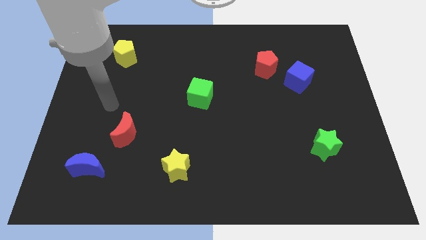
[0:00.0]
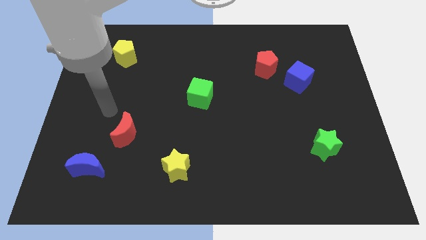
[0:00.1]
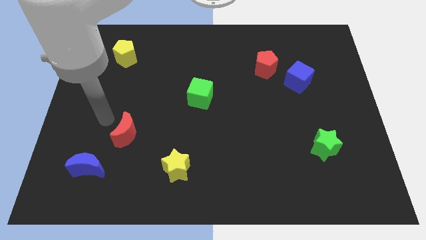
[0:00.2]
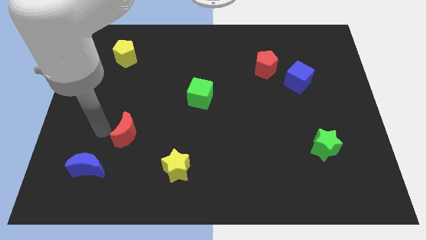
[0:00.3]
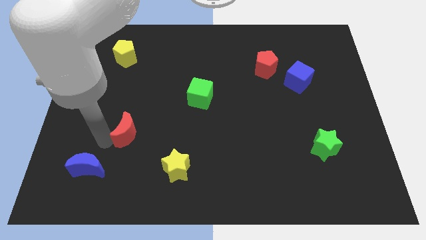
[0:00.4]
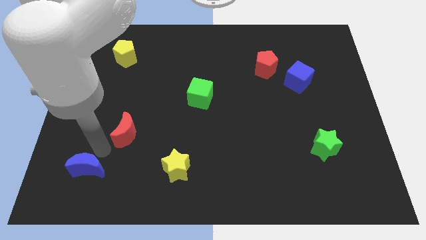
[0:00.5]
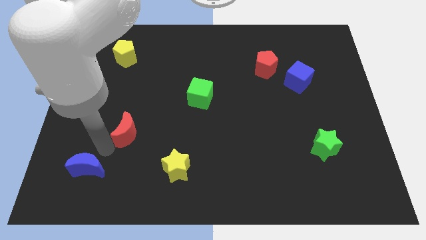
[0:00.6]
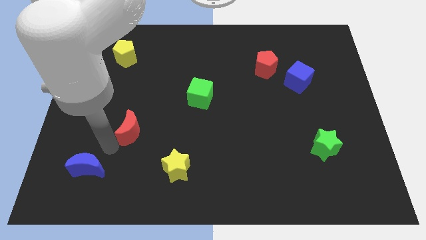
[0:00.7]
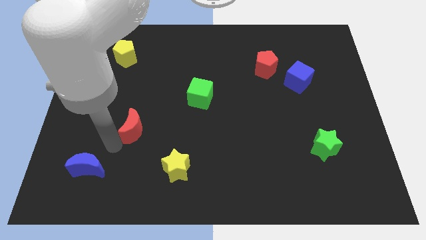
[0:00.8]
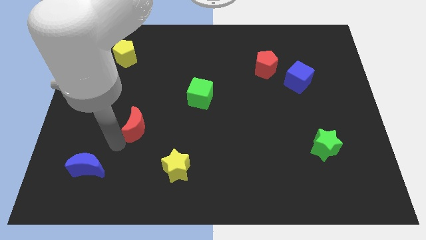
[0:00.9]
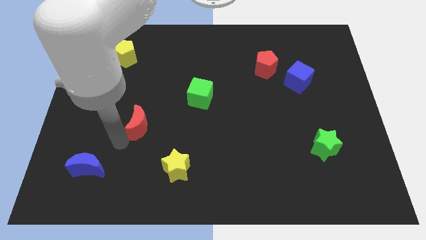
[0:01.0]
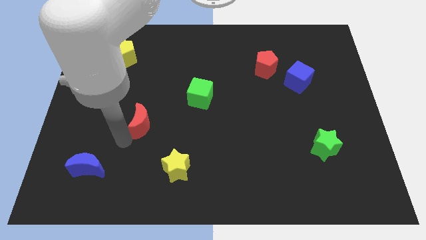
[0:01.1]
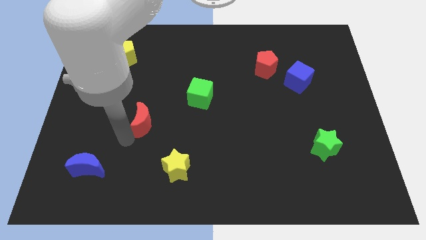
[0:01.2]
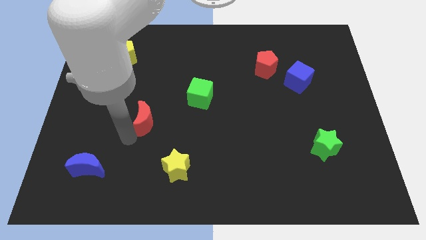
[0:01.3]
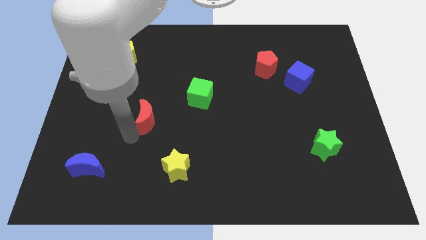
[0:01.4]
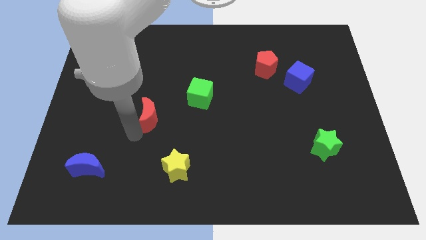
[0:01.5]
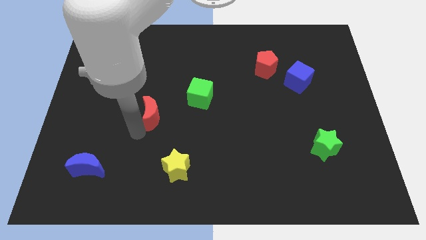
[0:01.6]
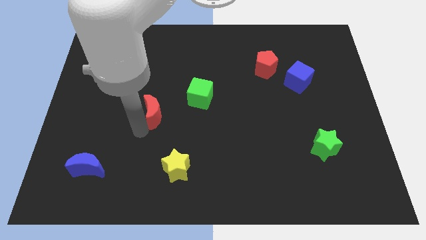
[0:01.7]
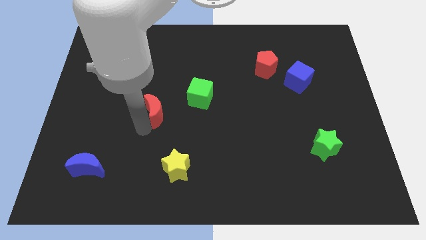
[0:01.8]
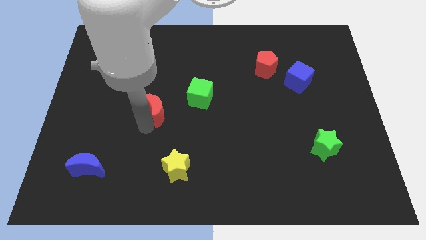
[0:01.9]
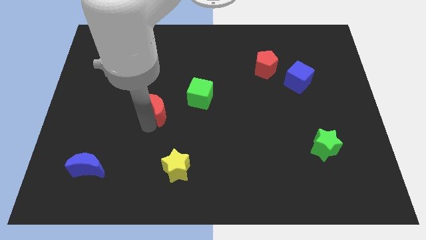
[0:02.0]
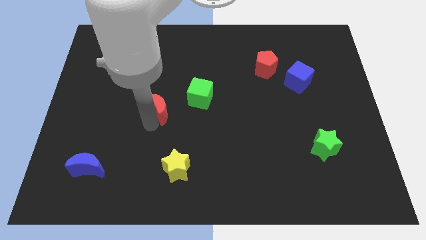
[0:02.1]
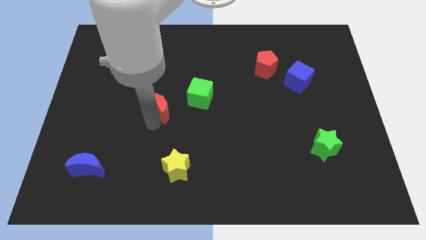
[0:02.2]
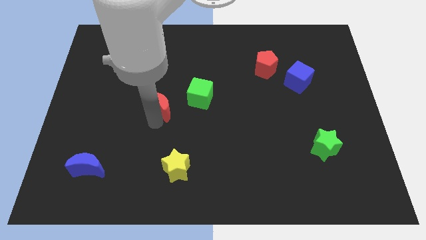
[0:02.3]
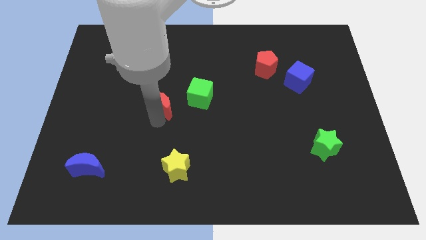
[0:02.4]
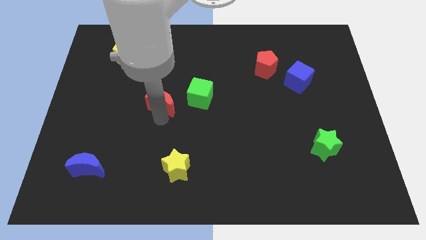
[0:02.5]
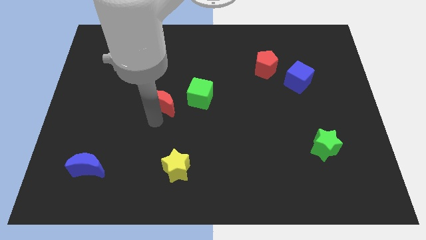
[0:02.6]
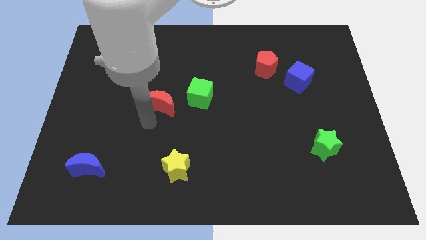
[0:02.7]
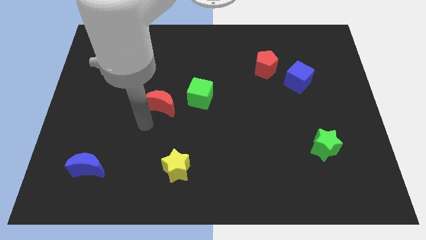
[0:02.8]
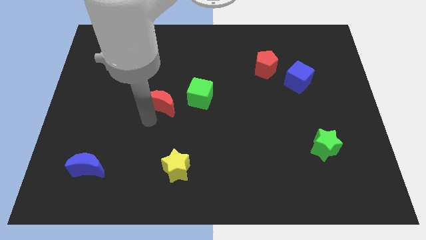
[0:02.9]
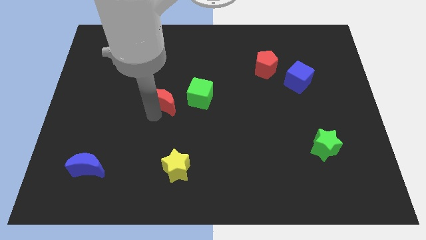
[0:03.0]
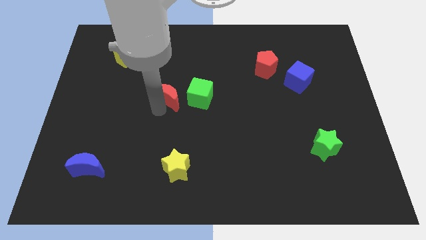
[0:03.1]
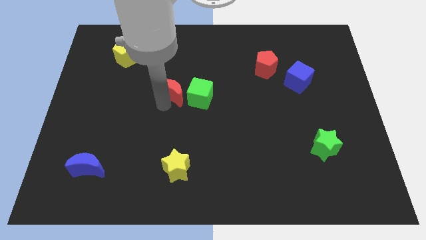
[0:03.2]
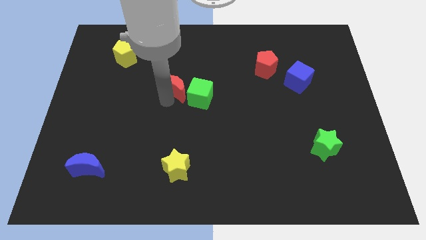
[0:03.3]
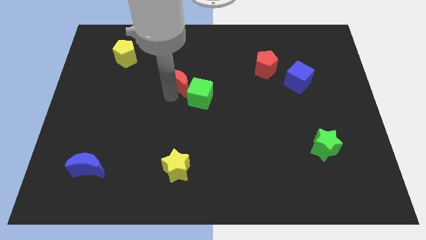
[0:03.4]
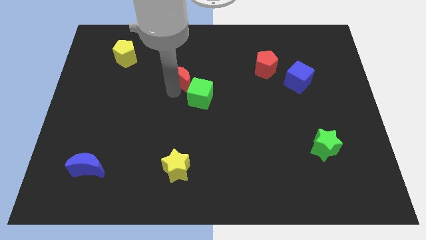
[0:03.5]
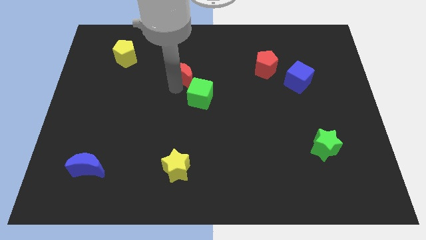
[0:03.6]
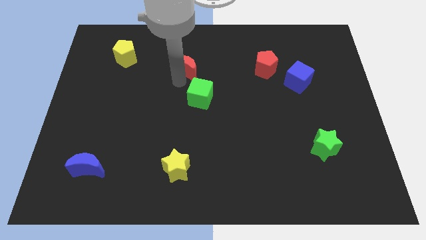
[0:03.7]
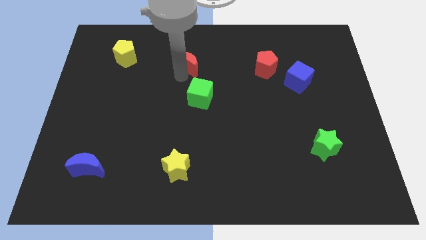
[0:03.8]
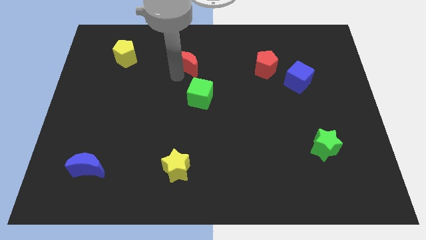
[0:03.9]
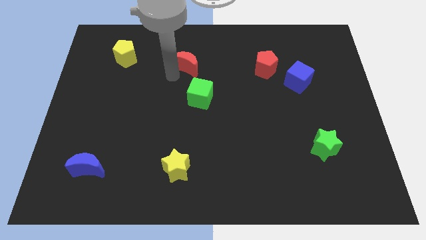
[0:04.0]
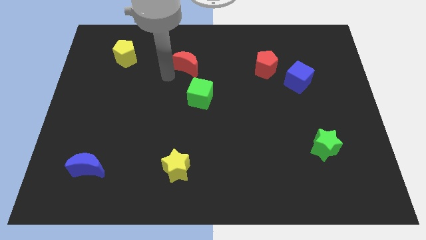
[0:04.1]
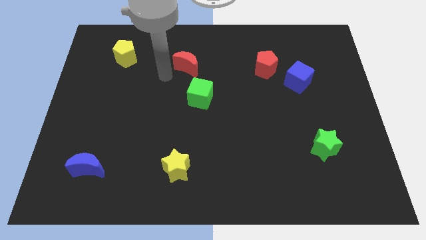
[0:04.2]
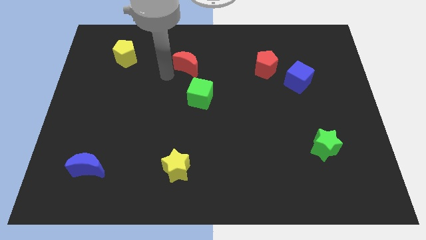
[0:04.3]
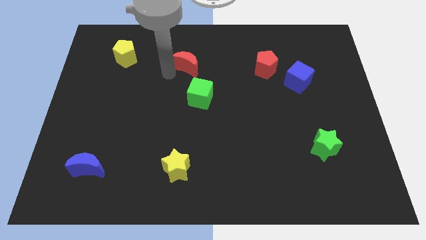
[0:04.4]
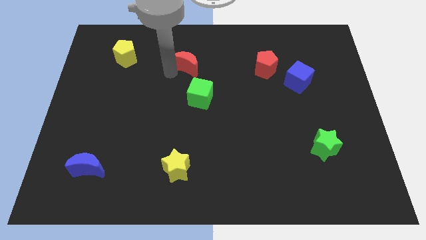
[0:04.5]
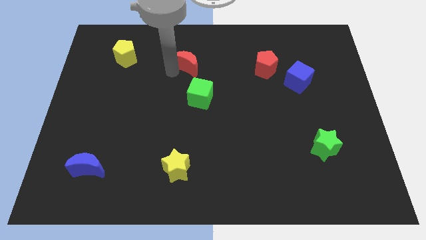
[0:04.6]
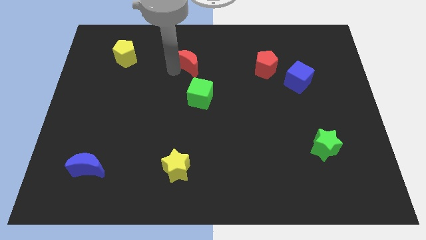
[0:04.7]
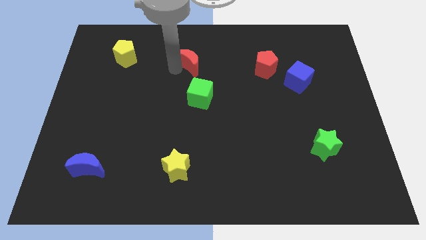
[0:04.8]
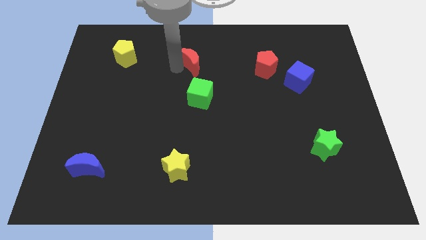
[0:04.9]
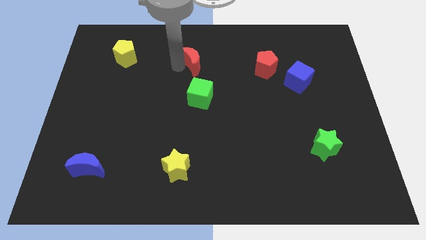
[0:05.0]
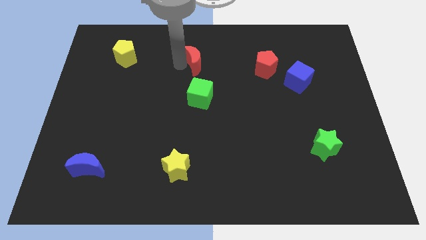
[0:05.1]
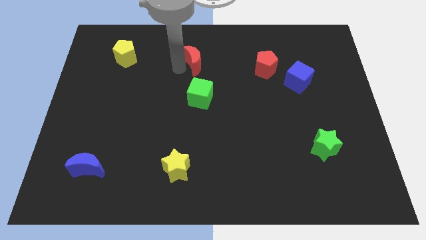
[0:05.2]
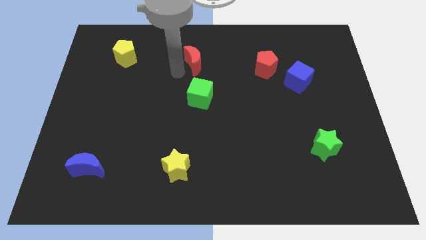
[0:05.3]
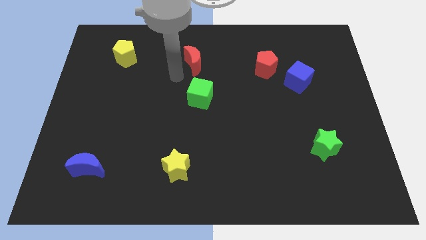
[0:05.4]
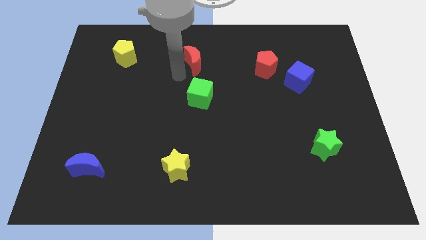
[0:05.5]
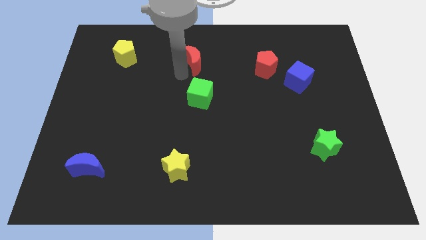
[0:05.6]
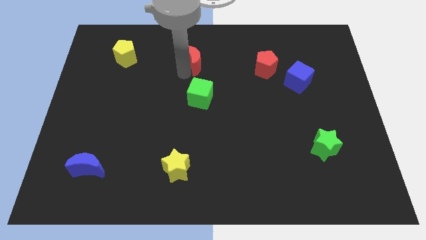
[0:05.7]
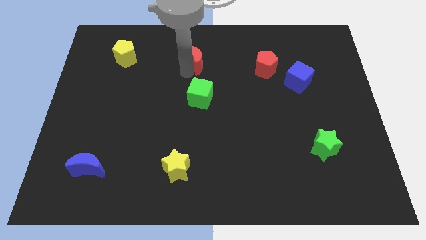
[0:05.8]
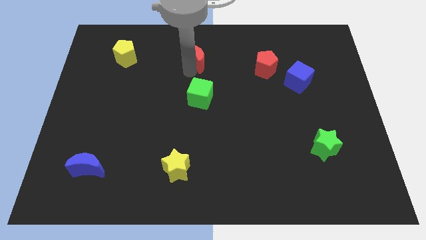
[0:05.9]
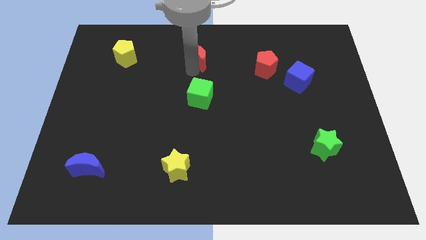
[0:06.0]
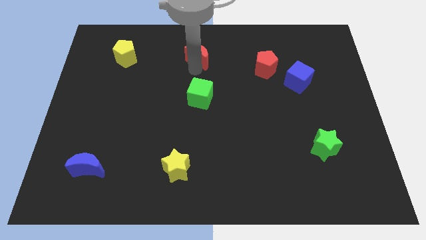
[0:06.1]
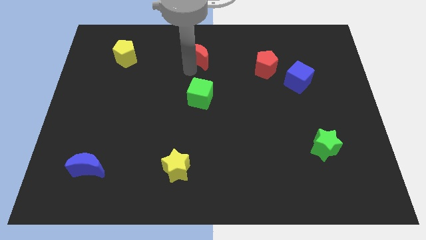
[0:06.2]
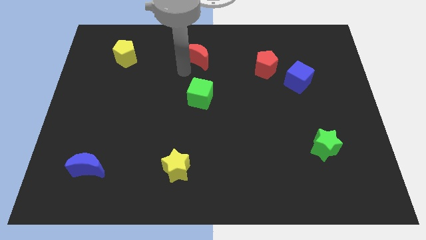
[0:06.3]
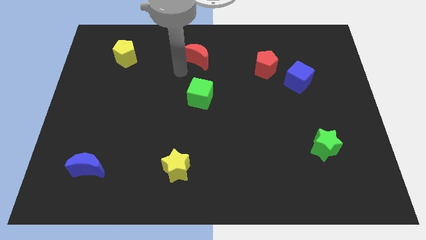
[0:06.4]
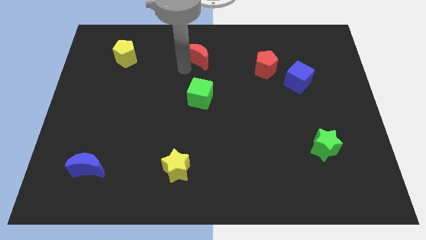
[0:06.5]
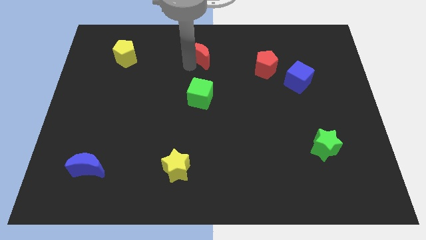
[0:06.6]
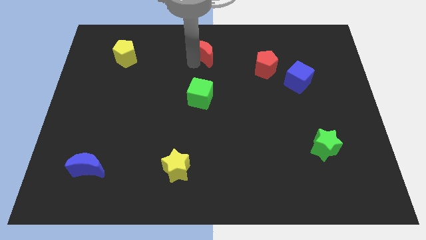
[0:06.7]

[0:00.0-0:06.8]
slide the red moon to the towards your base

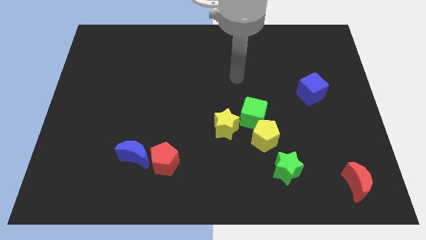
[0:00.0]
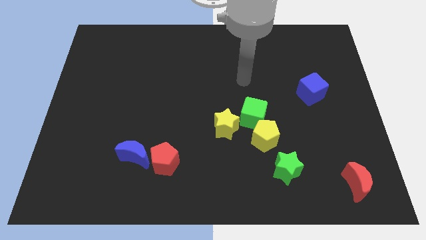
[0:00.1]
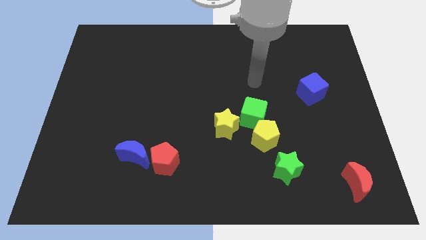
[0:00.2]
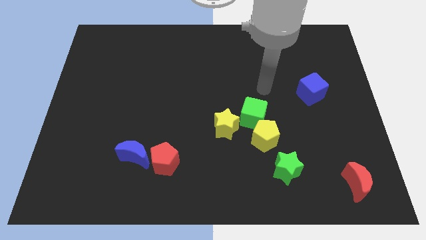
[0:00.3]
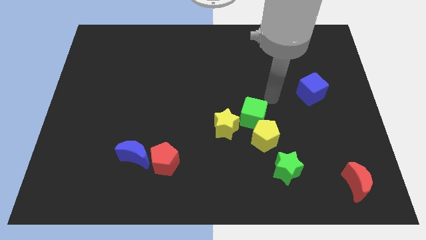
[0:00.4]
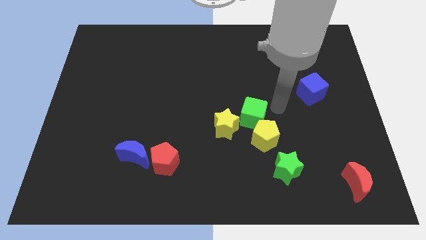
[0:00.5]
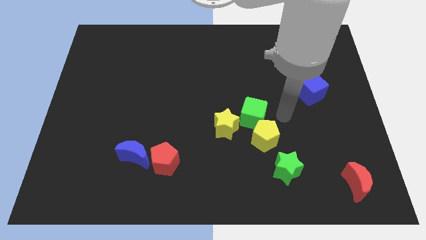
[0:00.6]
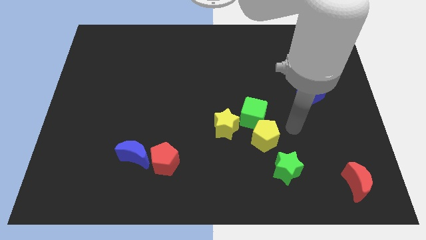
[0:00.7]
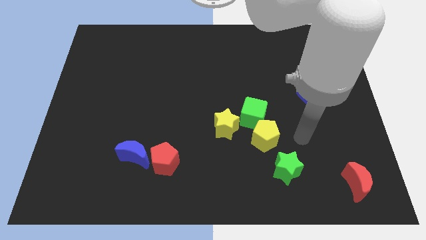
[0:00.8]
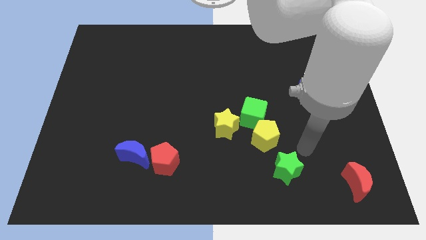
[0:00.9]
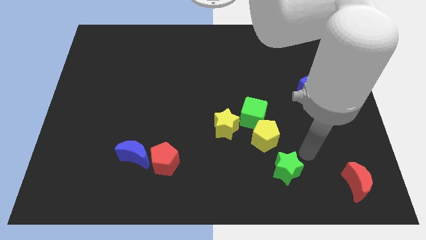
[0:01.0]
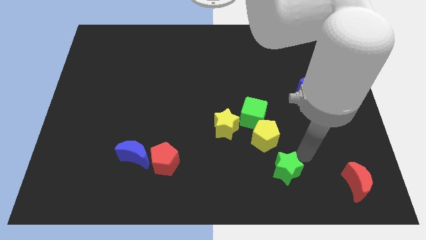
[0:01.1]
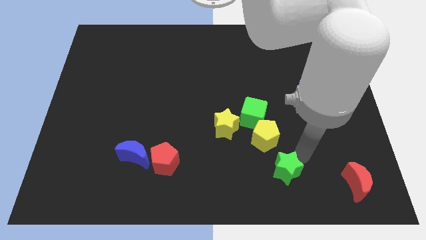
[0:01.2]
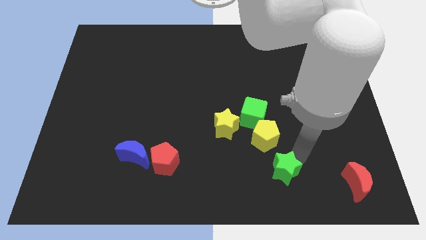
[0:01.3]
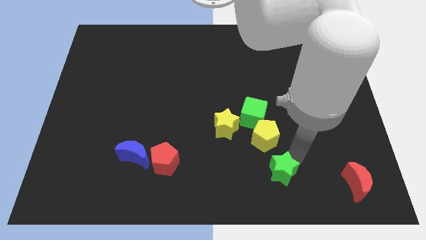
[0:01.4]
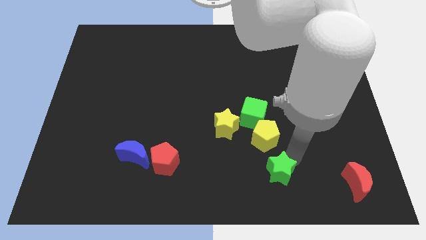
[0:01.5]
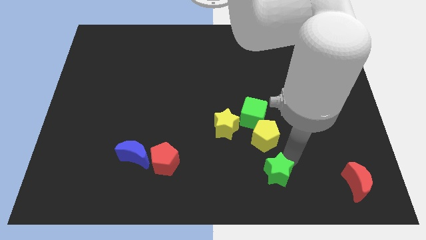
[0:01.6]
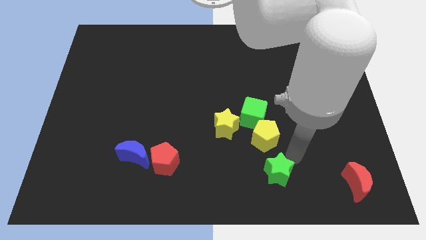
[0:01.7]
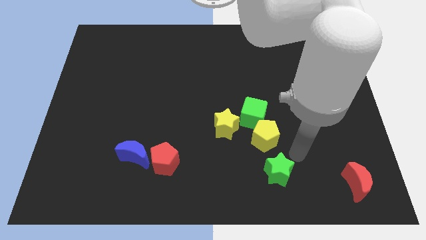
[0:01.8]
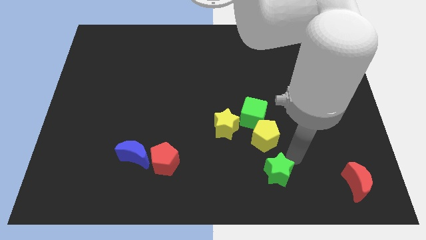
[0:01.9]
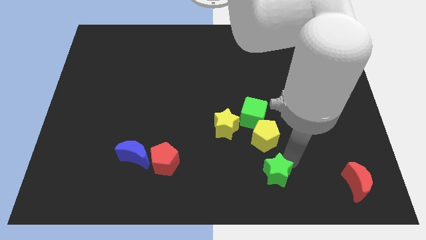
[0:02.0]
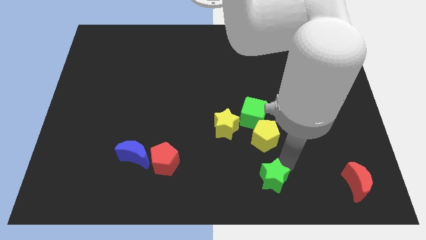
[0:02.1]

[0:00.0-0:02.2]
put the green star to the bottom side
